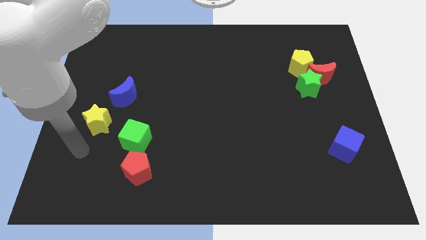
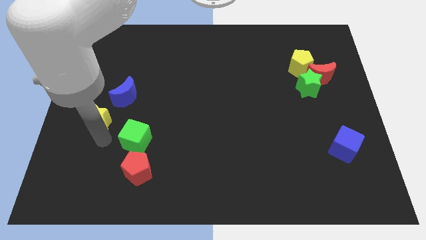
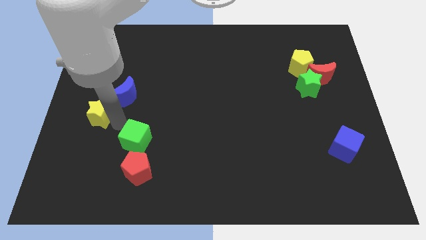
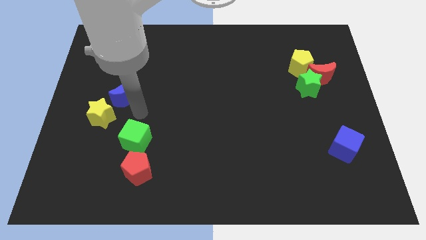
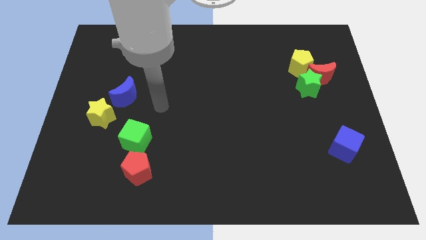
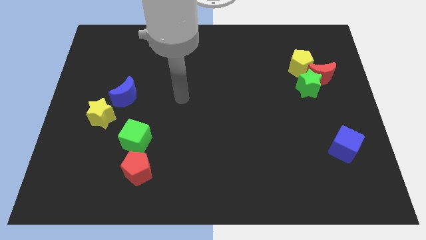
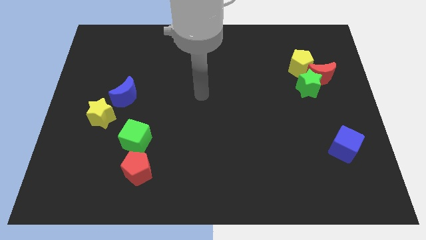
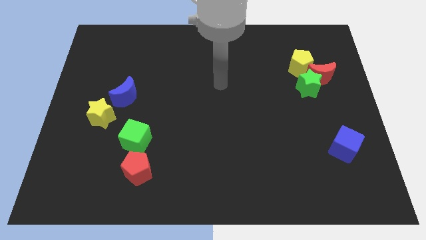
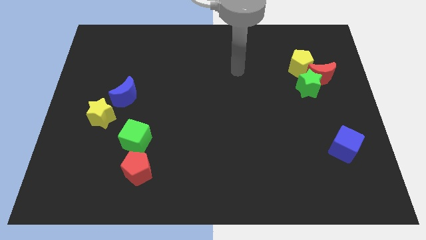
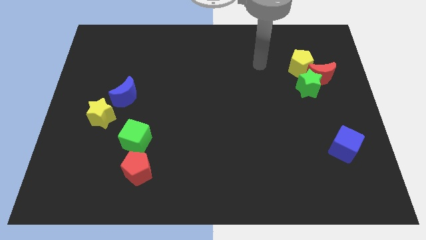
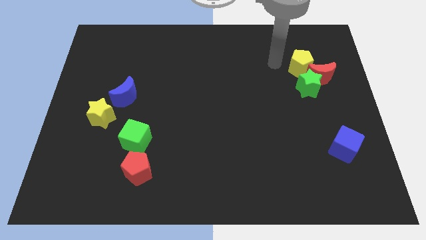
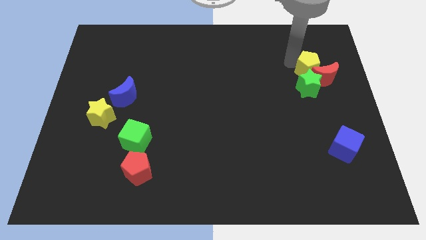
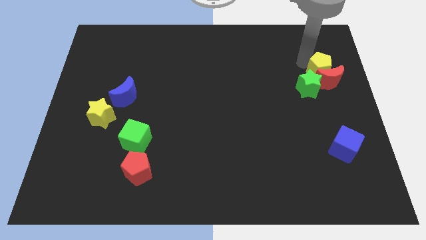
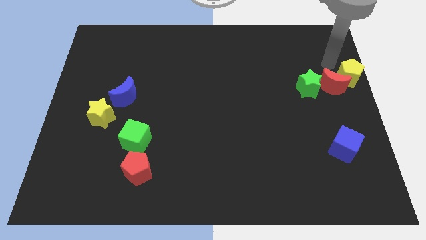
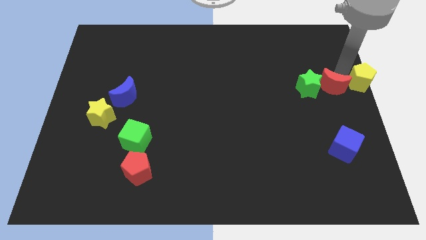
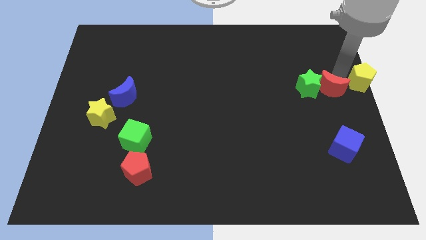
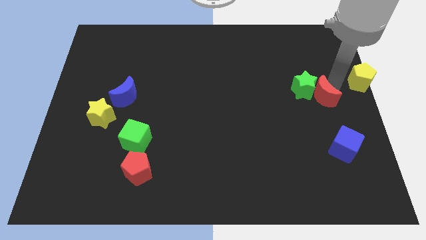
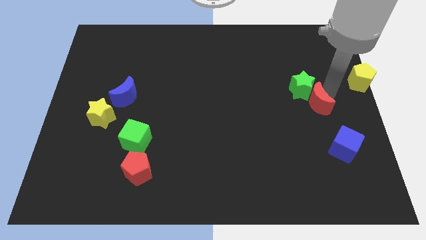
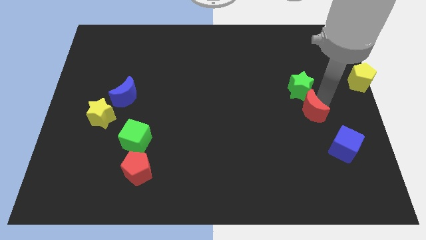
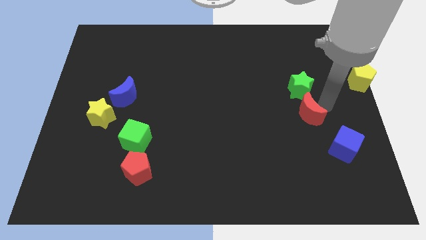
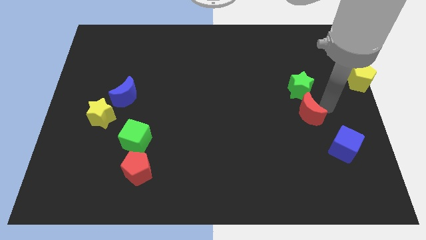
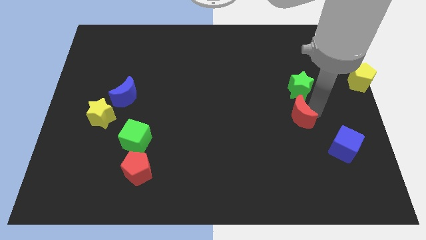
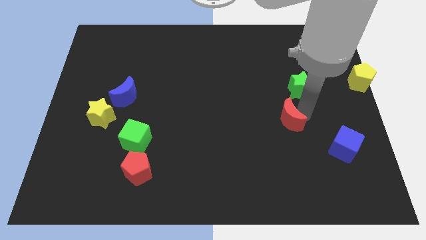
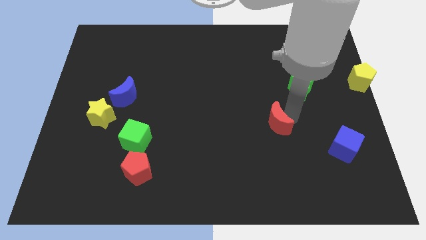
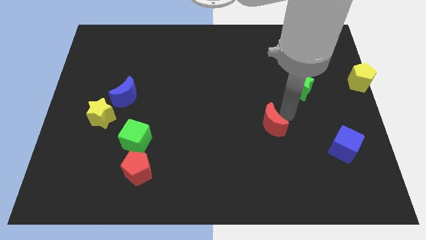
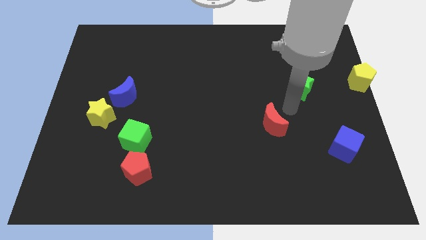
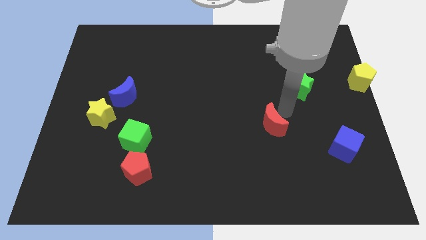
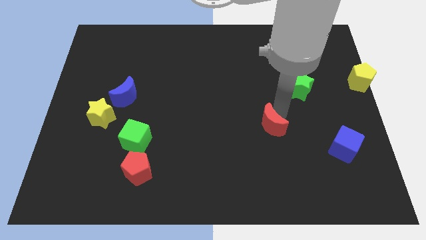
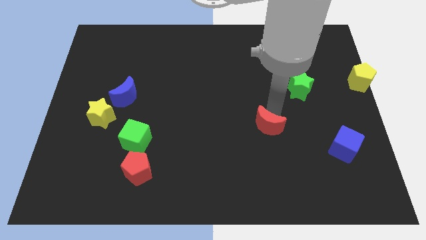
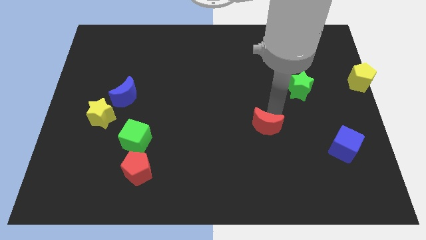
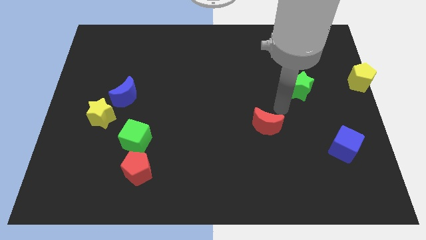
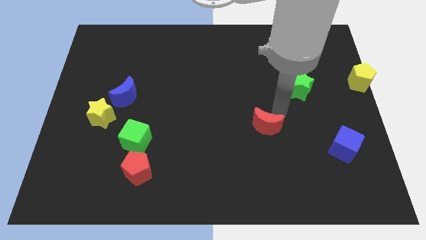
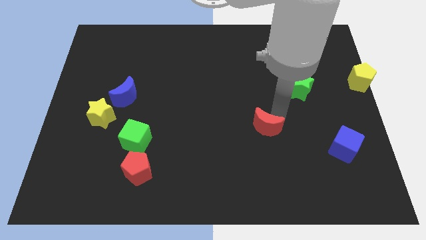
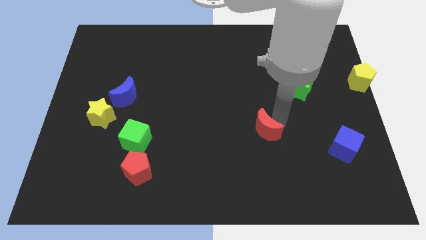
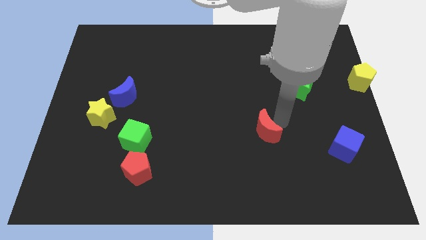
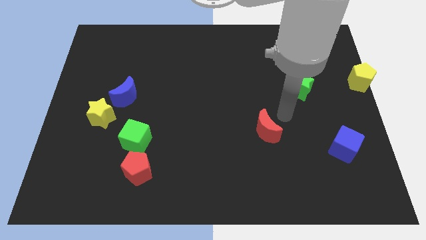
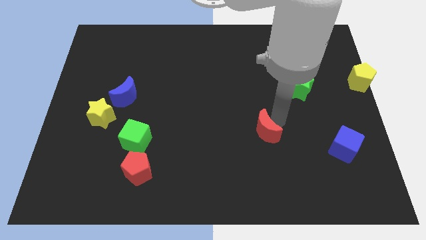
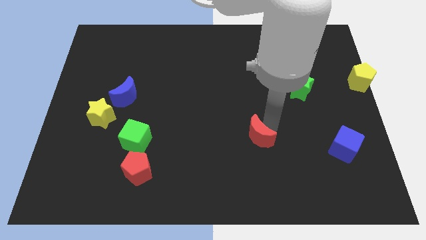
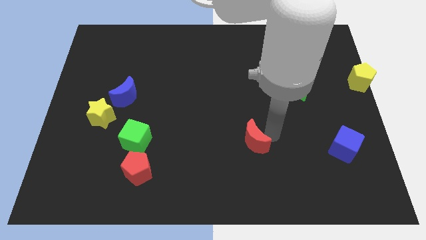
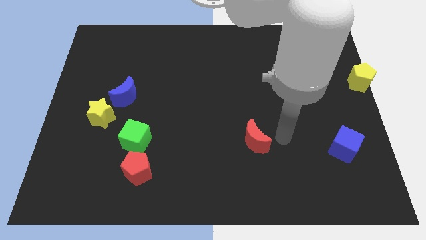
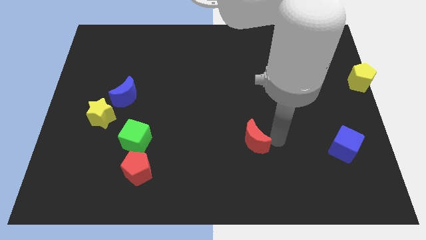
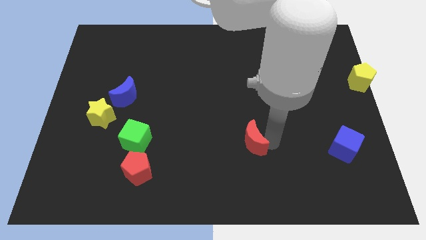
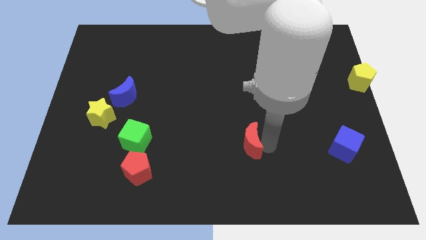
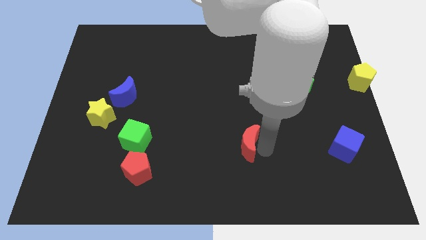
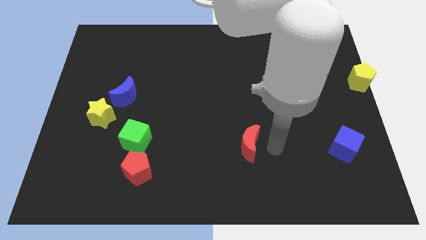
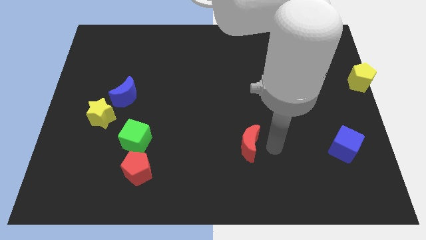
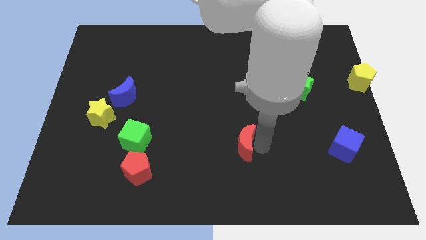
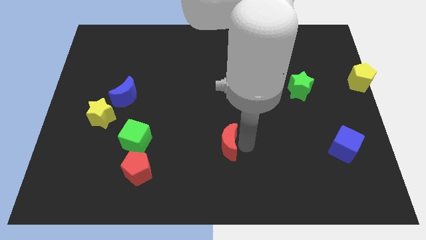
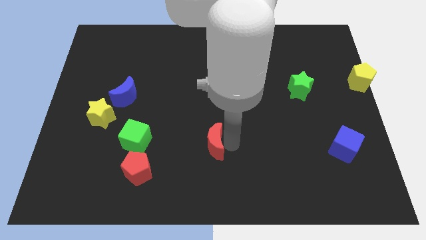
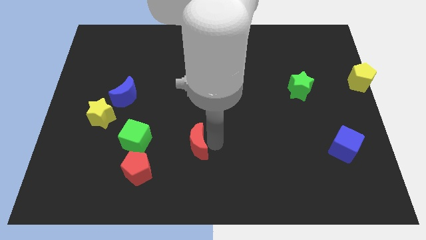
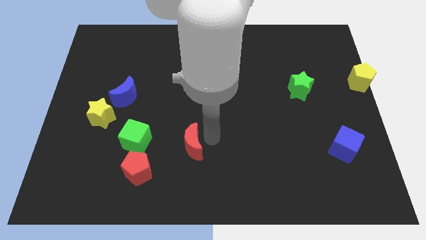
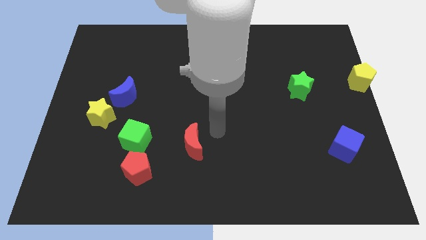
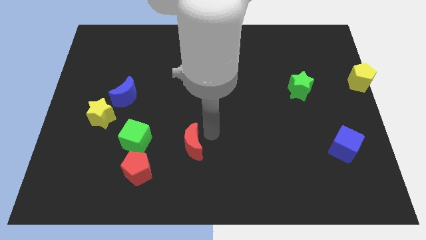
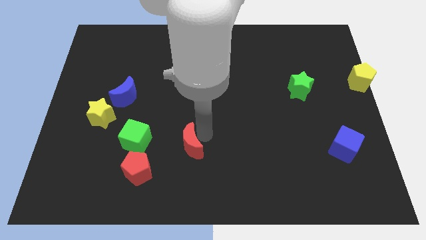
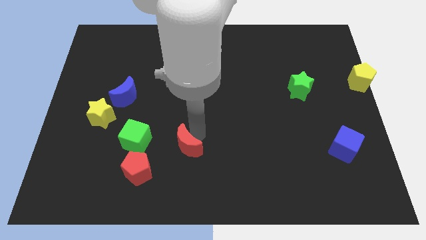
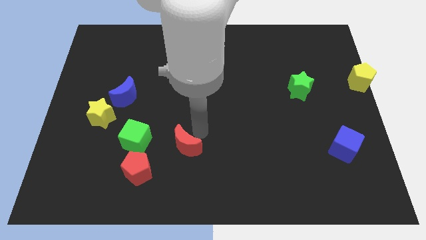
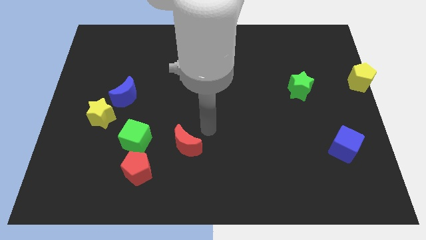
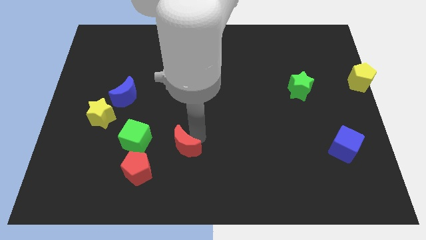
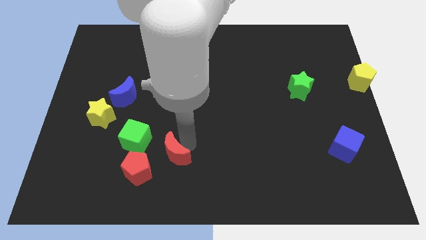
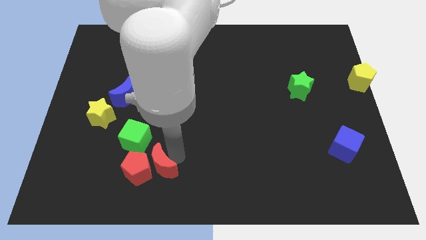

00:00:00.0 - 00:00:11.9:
push the red moon to the red pentagon

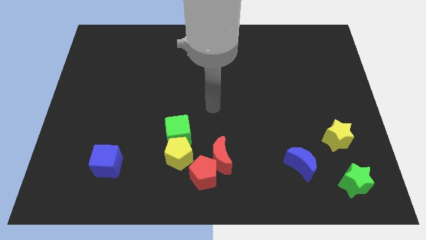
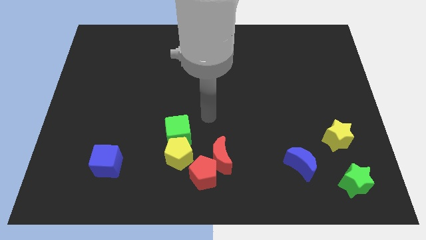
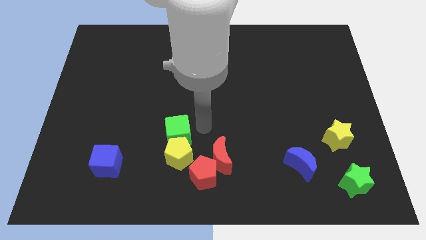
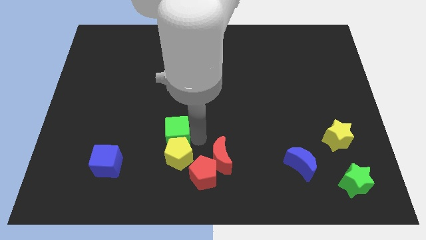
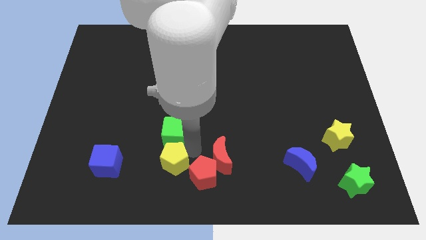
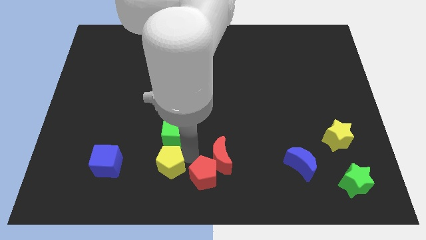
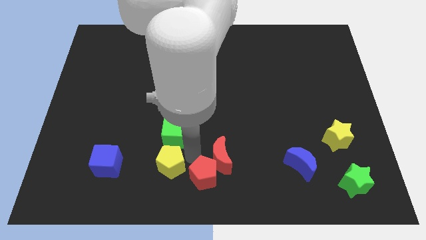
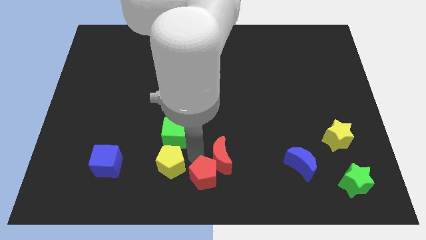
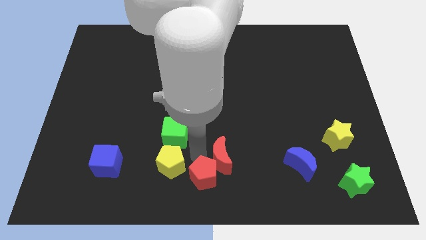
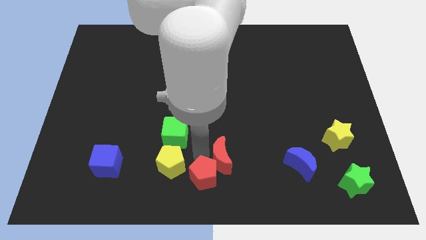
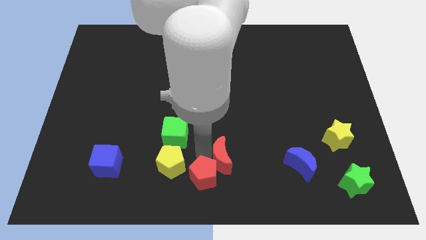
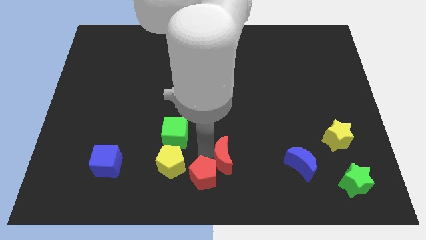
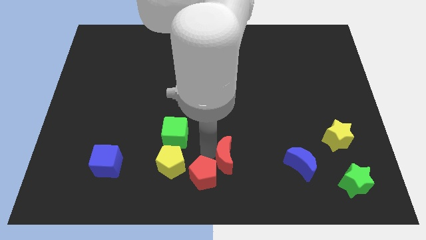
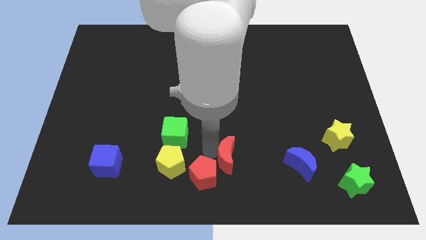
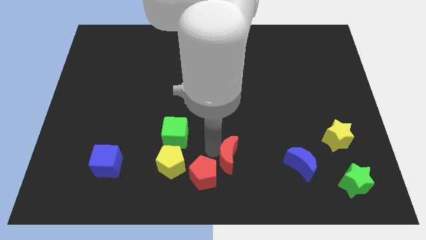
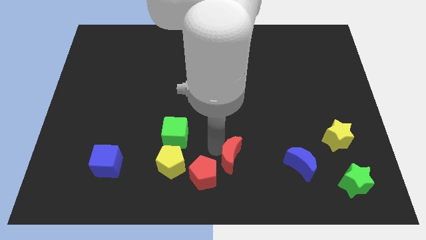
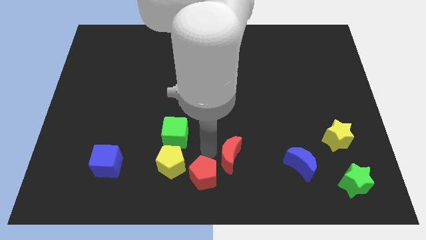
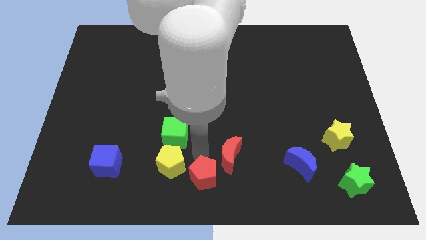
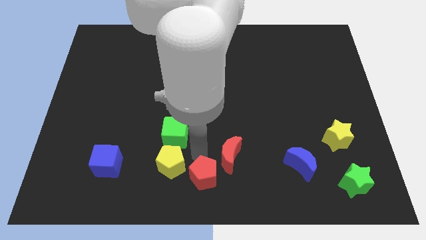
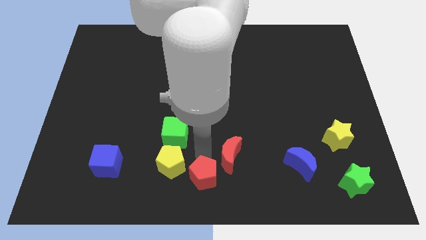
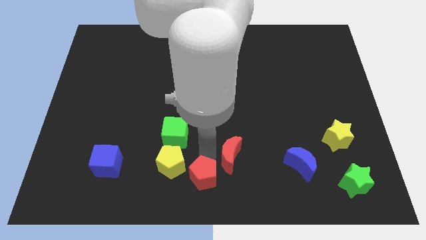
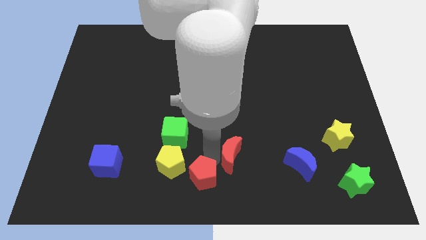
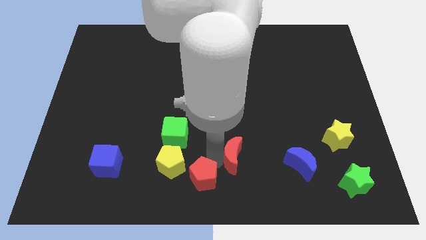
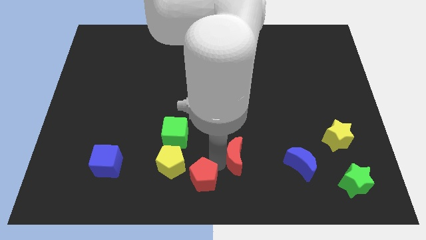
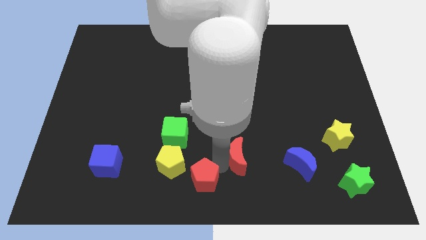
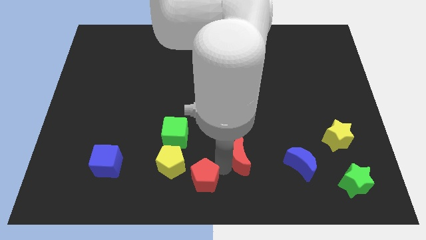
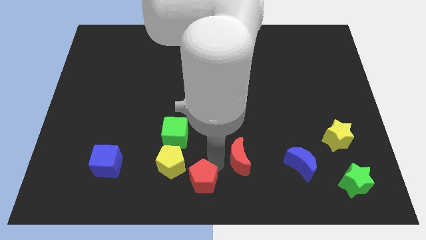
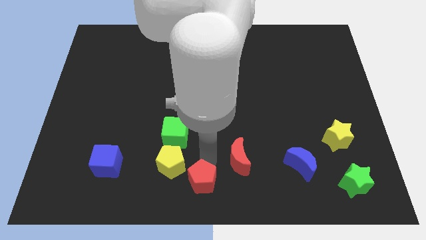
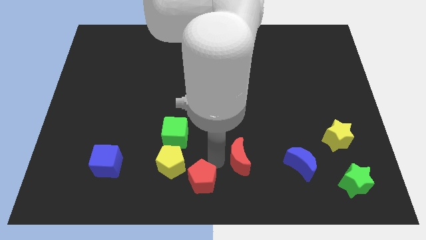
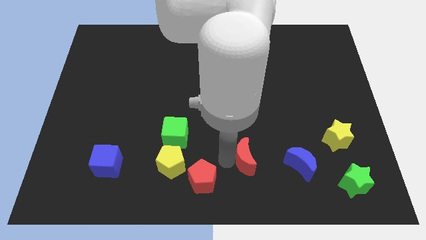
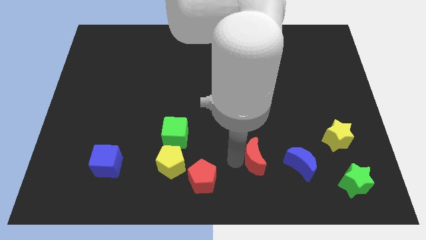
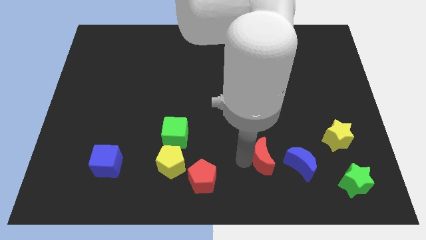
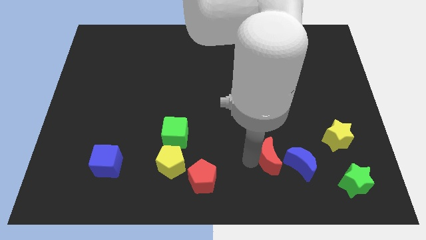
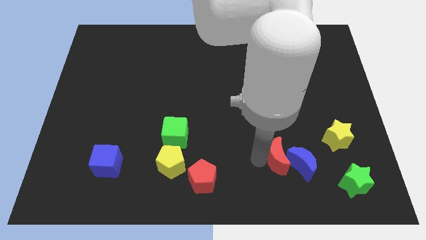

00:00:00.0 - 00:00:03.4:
push the red moon towards the blue moon
